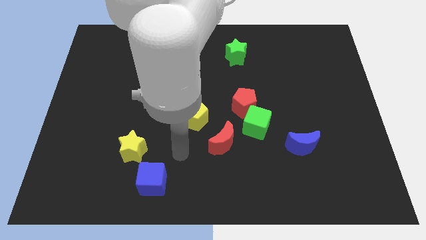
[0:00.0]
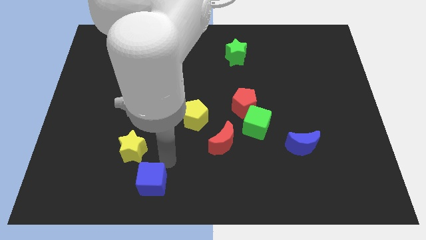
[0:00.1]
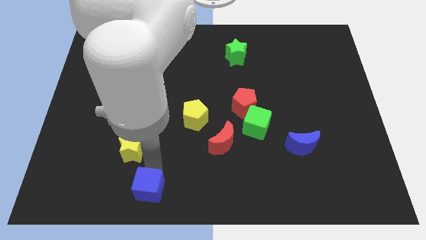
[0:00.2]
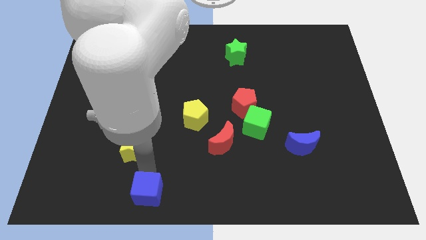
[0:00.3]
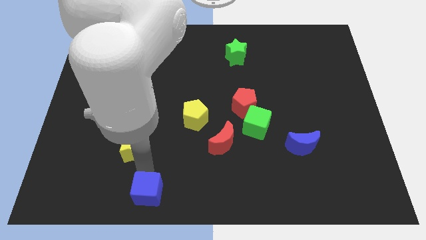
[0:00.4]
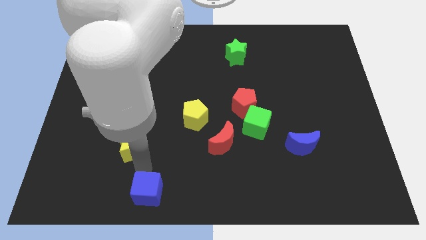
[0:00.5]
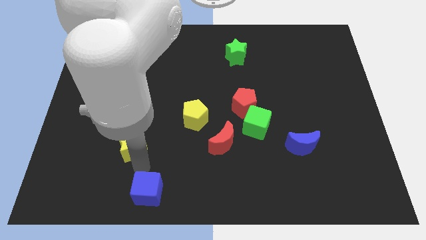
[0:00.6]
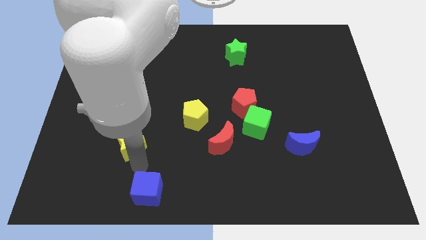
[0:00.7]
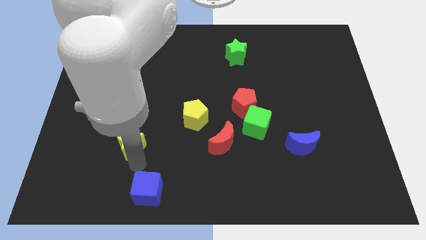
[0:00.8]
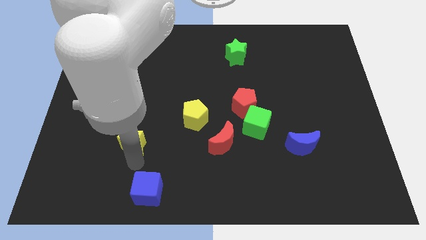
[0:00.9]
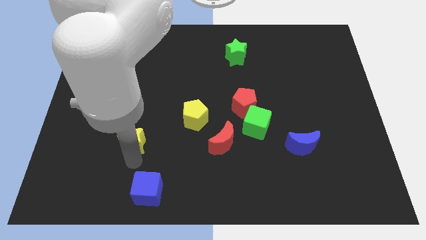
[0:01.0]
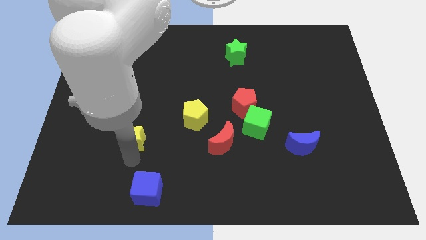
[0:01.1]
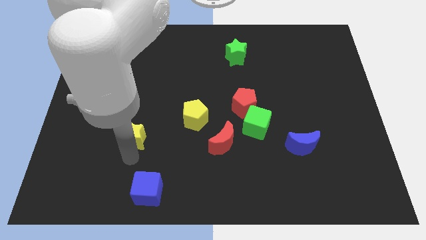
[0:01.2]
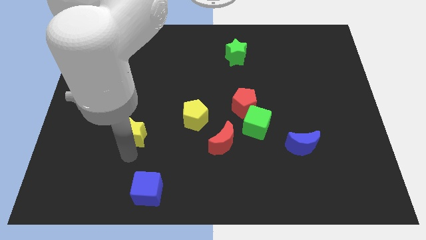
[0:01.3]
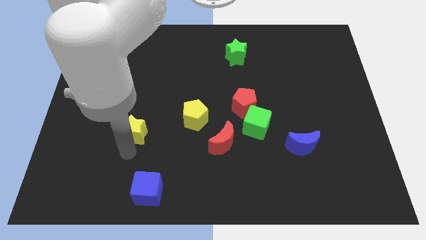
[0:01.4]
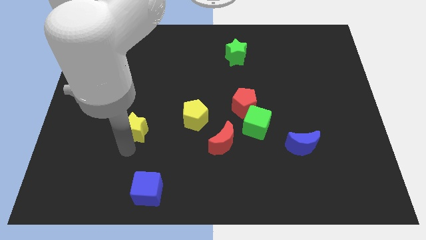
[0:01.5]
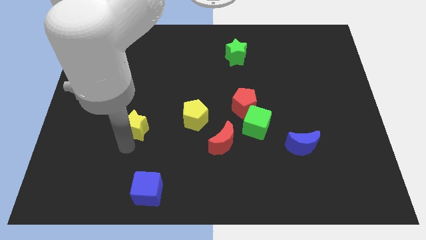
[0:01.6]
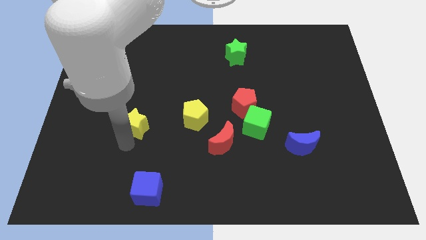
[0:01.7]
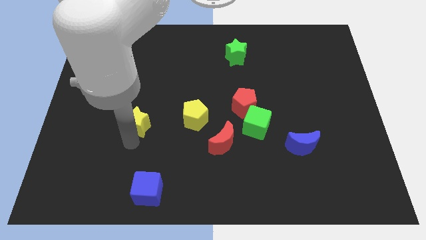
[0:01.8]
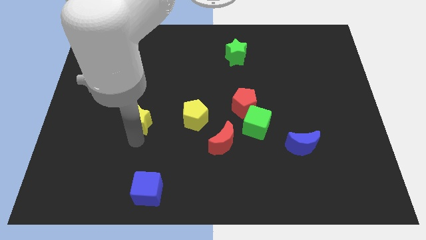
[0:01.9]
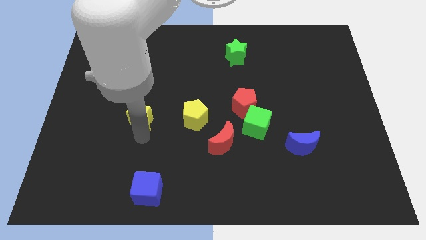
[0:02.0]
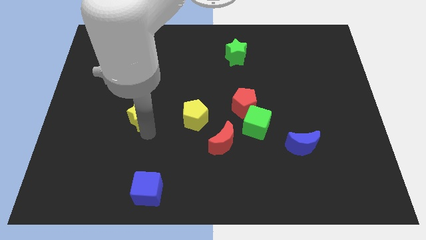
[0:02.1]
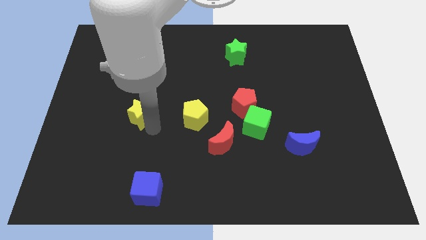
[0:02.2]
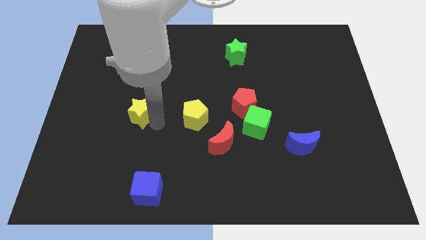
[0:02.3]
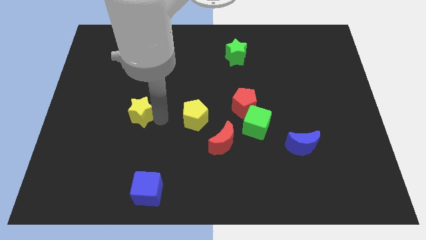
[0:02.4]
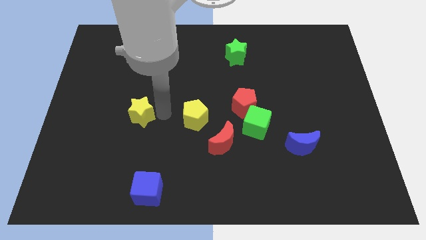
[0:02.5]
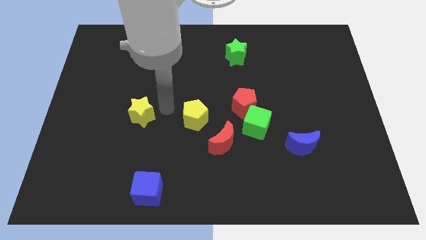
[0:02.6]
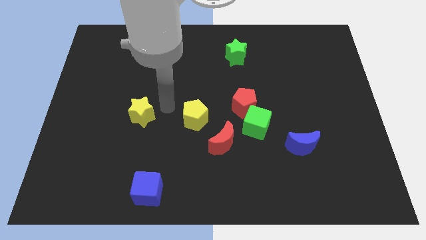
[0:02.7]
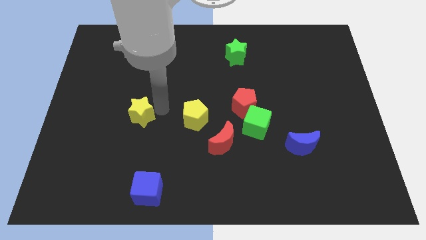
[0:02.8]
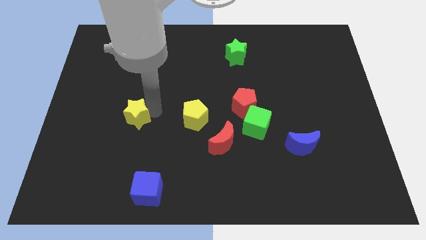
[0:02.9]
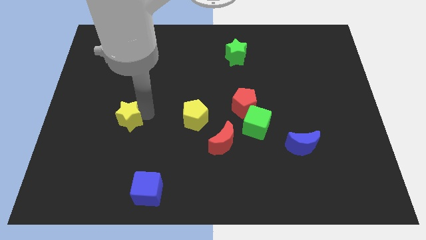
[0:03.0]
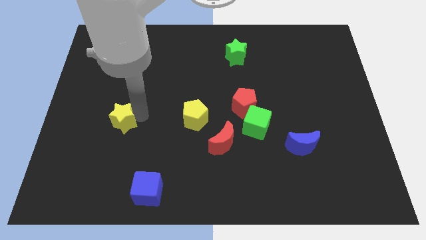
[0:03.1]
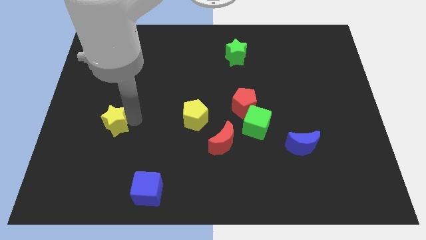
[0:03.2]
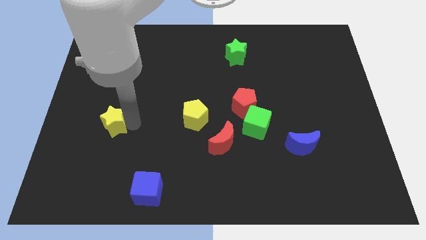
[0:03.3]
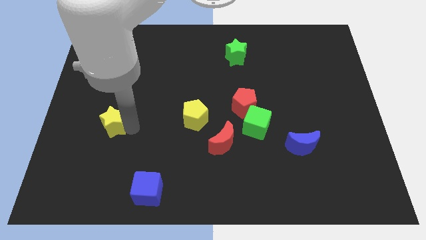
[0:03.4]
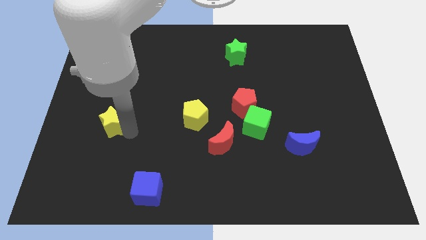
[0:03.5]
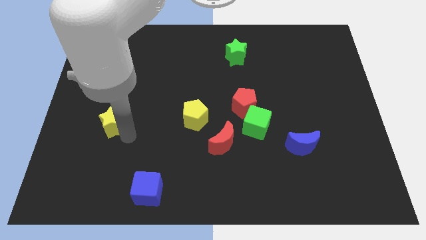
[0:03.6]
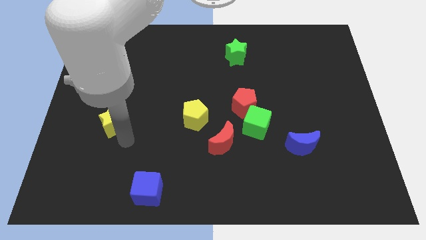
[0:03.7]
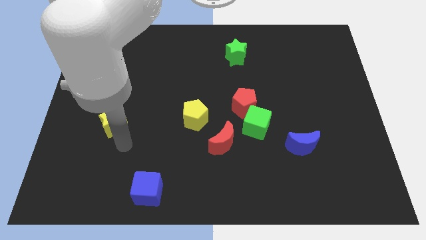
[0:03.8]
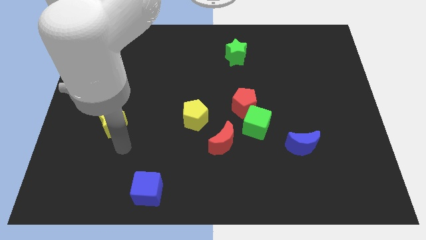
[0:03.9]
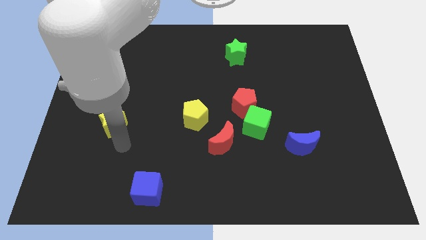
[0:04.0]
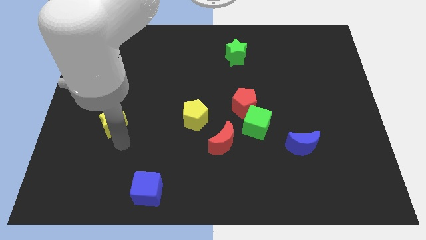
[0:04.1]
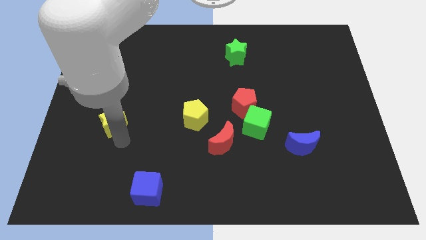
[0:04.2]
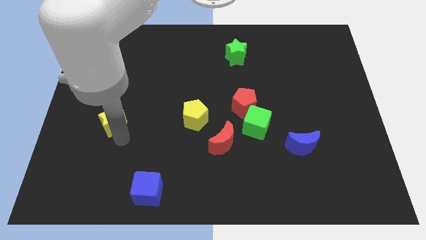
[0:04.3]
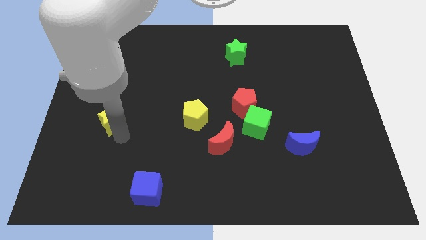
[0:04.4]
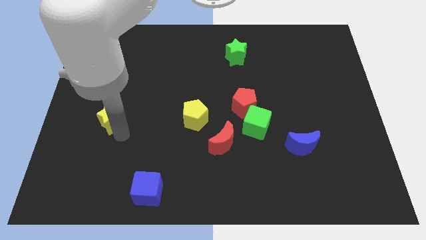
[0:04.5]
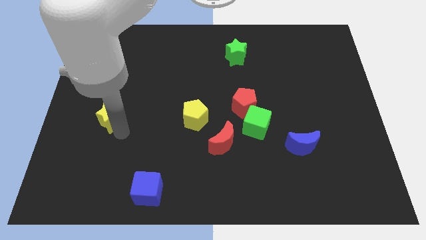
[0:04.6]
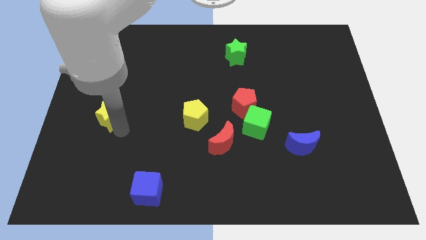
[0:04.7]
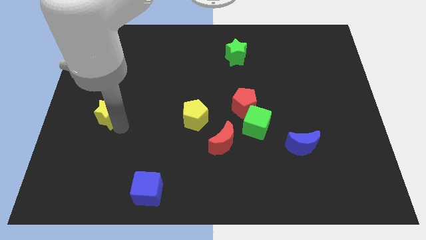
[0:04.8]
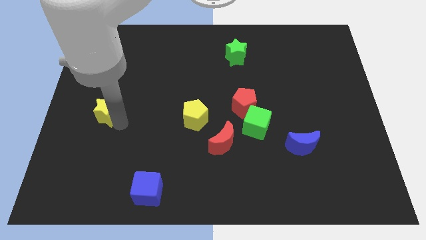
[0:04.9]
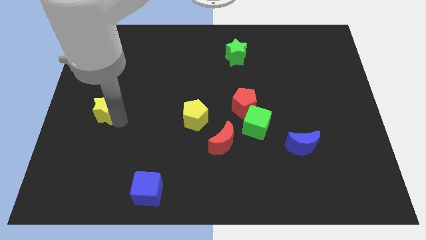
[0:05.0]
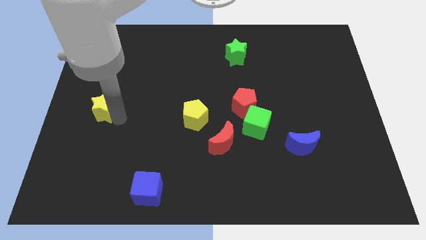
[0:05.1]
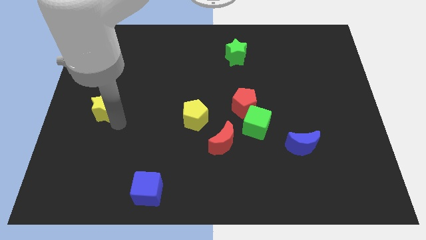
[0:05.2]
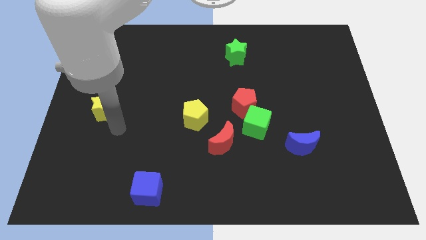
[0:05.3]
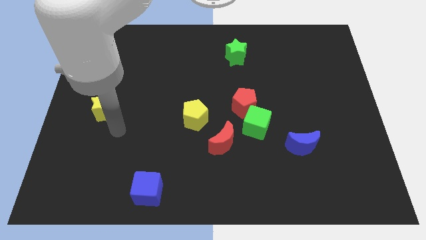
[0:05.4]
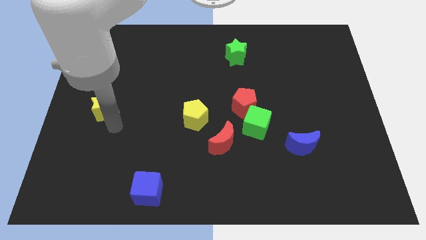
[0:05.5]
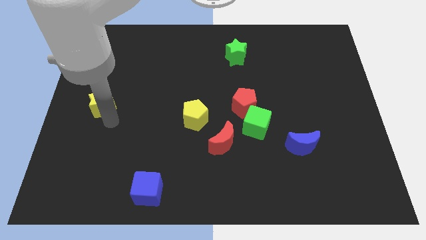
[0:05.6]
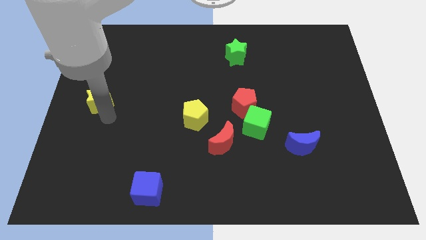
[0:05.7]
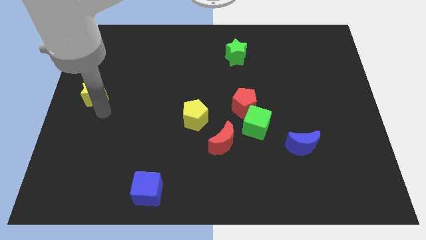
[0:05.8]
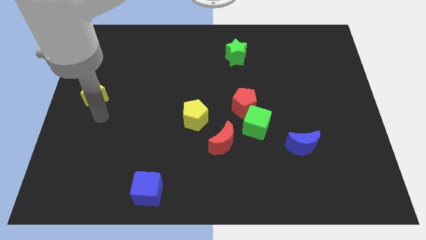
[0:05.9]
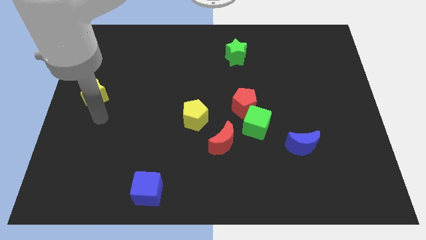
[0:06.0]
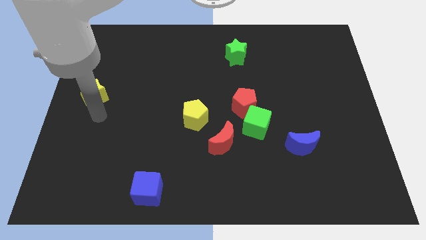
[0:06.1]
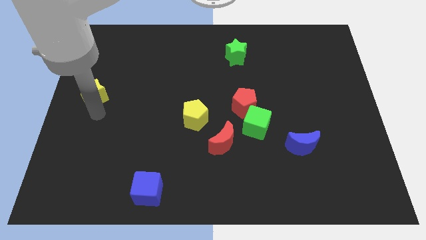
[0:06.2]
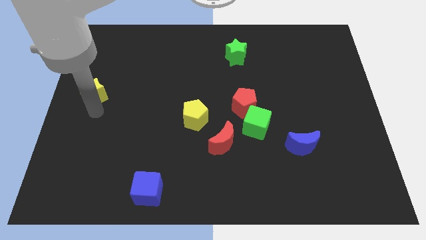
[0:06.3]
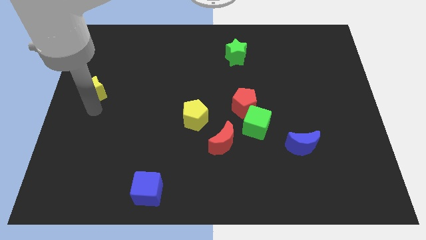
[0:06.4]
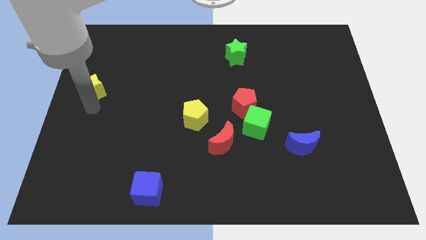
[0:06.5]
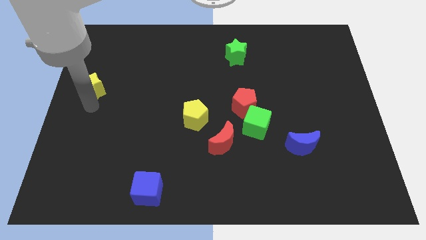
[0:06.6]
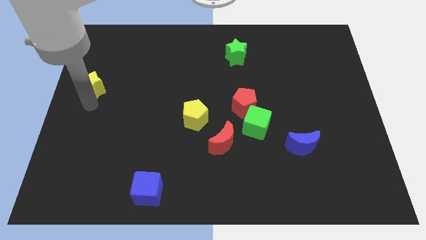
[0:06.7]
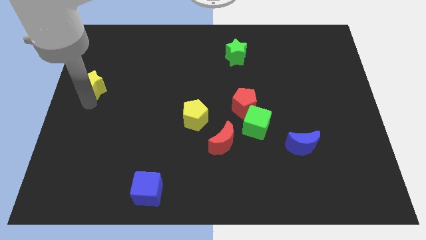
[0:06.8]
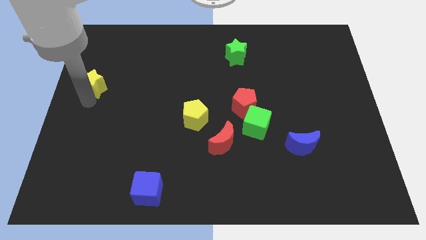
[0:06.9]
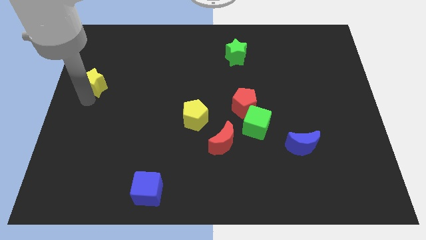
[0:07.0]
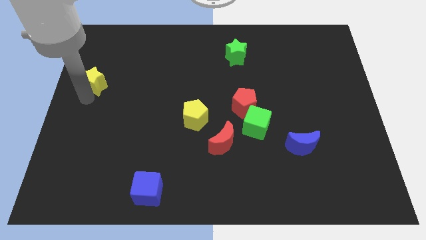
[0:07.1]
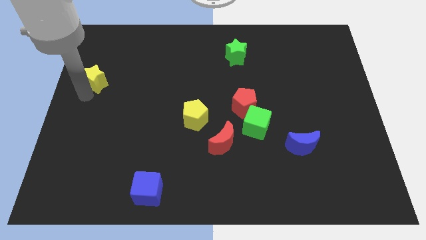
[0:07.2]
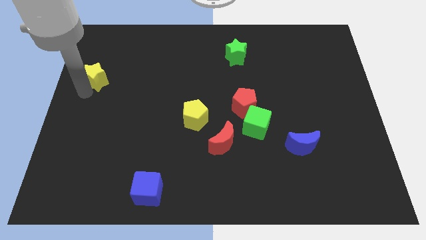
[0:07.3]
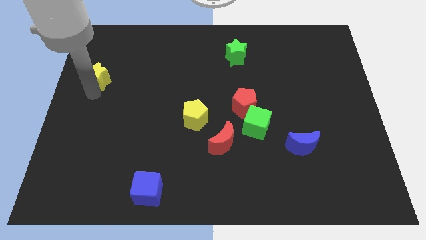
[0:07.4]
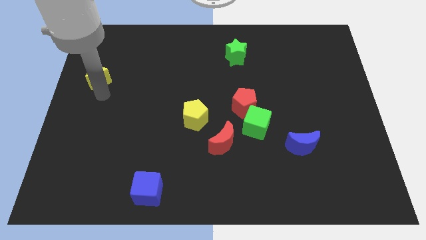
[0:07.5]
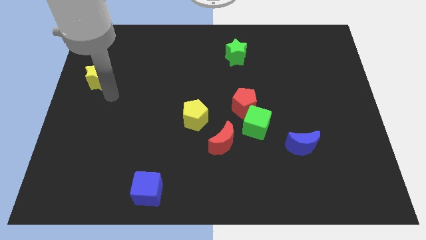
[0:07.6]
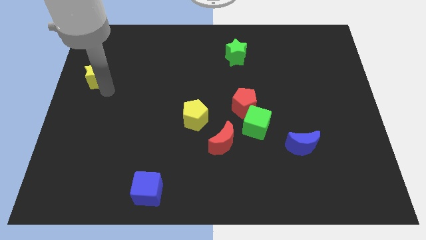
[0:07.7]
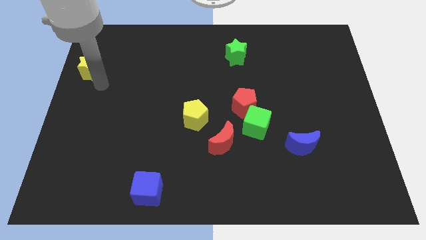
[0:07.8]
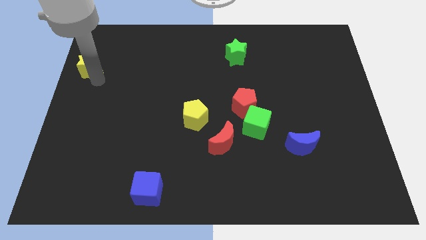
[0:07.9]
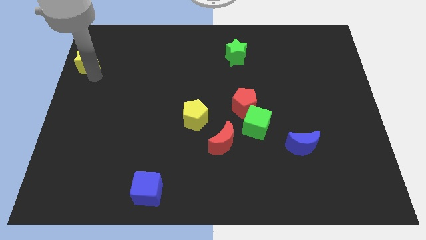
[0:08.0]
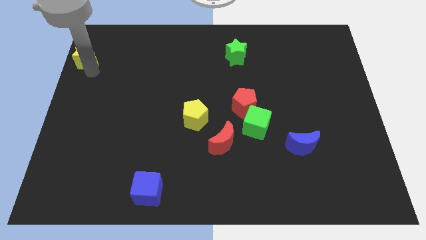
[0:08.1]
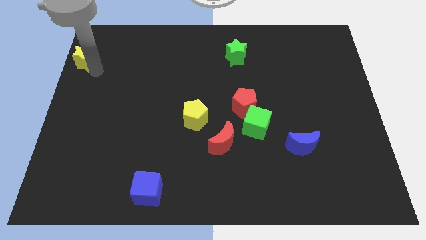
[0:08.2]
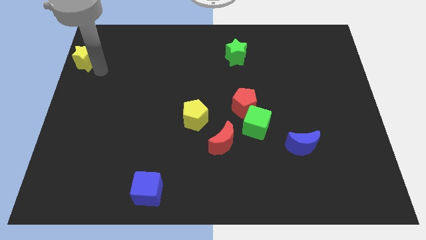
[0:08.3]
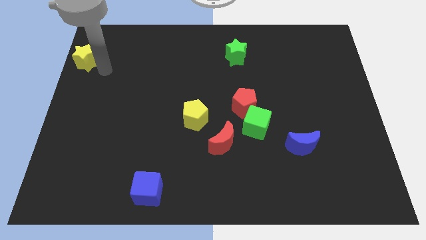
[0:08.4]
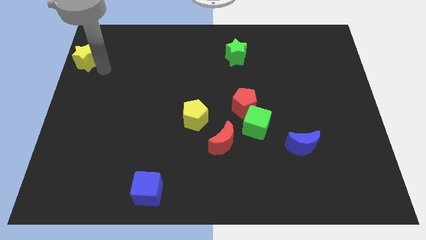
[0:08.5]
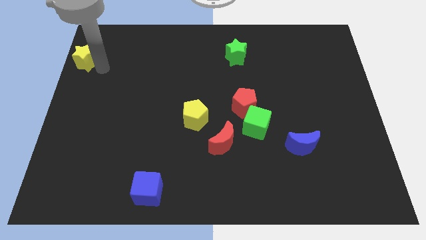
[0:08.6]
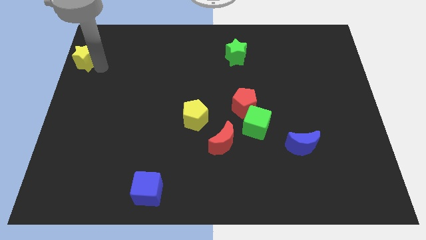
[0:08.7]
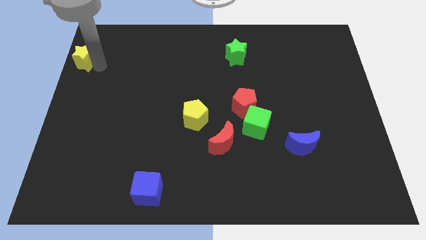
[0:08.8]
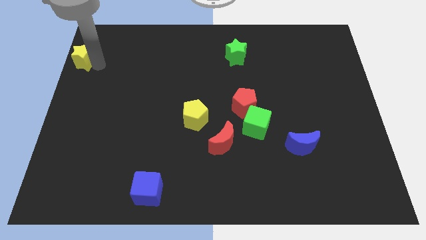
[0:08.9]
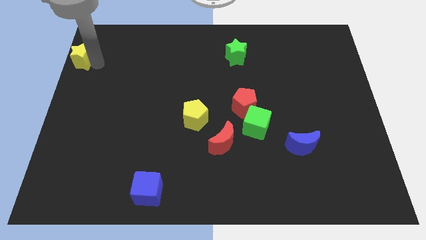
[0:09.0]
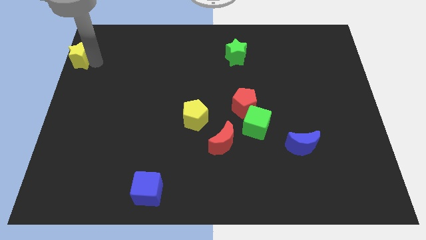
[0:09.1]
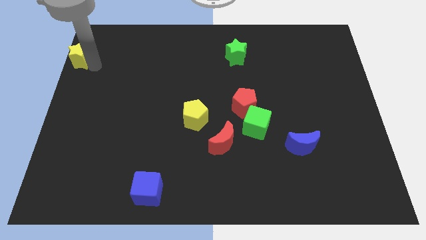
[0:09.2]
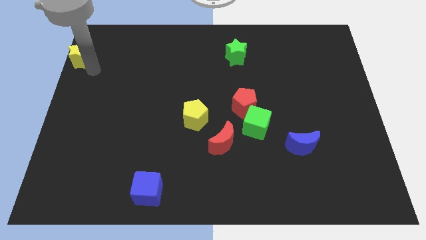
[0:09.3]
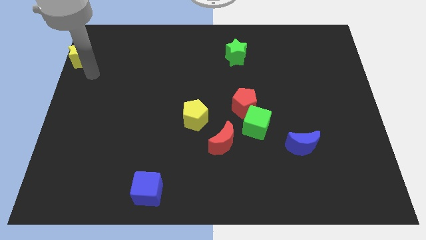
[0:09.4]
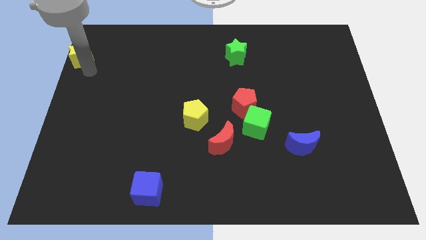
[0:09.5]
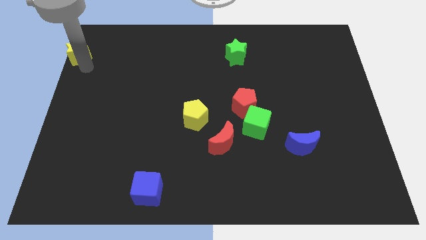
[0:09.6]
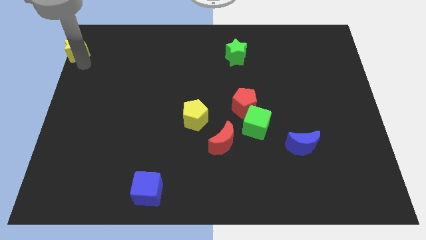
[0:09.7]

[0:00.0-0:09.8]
slide the yellow star to the upper left corner
